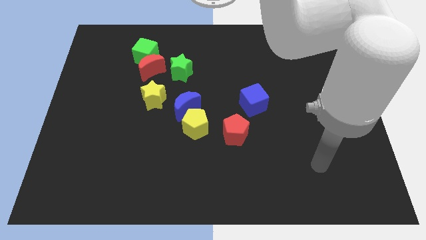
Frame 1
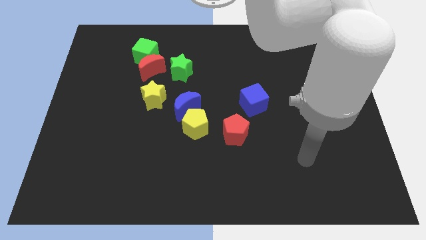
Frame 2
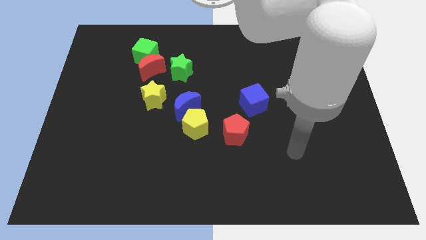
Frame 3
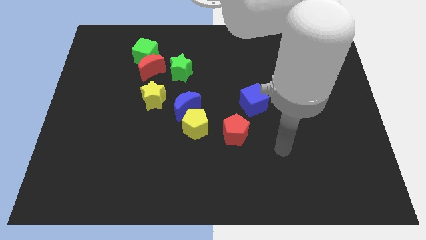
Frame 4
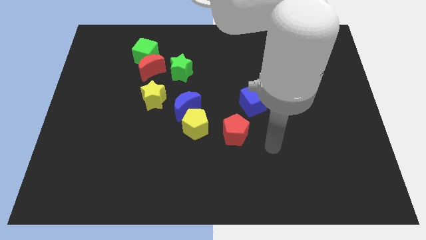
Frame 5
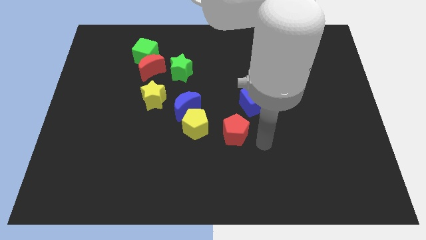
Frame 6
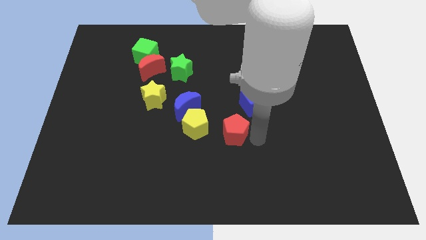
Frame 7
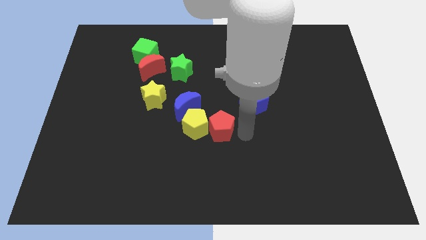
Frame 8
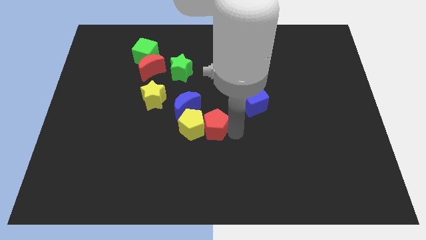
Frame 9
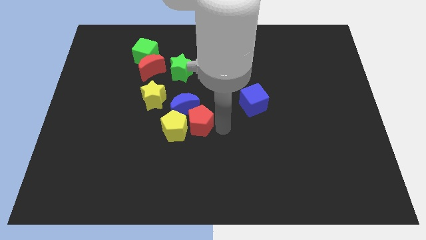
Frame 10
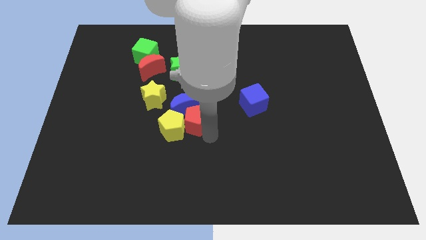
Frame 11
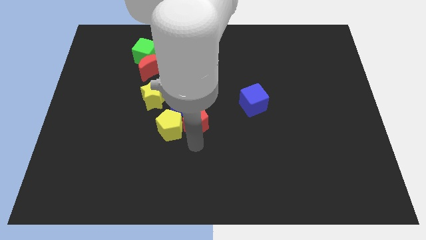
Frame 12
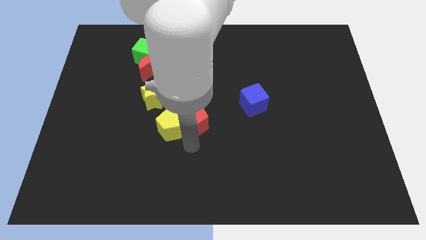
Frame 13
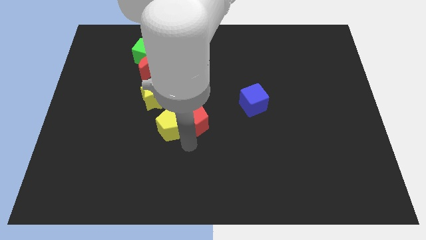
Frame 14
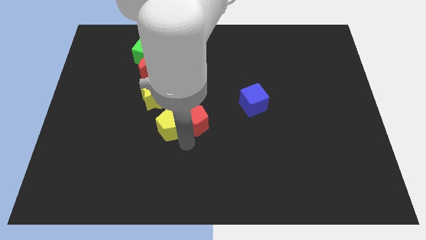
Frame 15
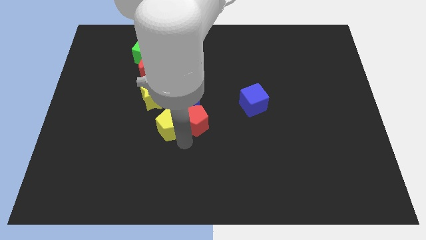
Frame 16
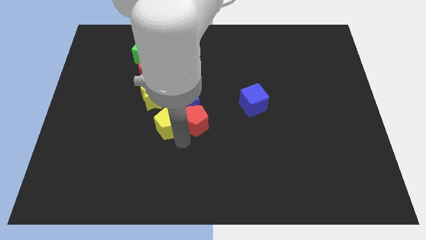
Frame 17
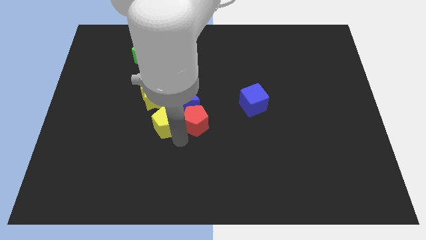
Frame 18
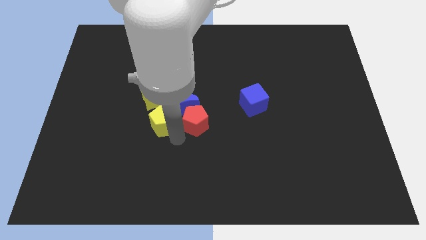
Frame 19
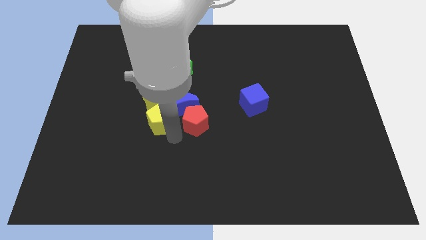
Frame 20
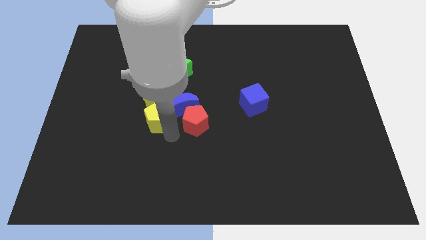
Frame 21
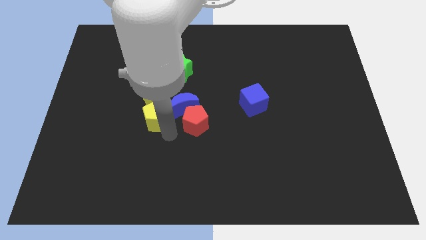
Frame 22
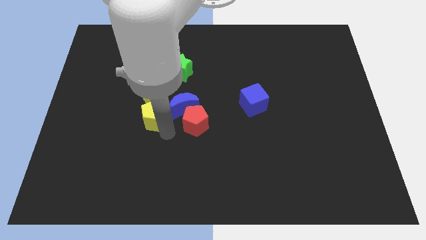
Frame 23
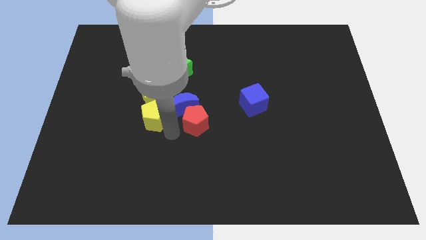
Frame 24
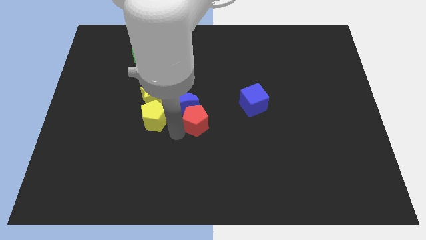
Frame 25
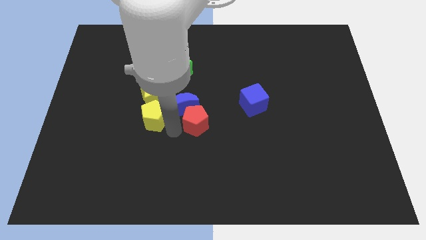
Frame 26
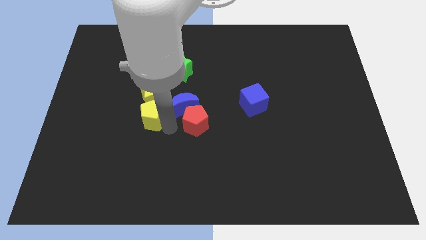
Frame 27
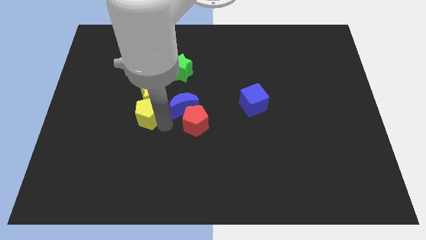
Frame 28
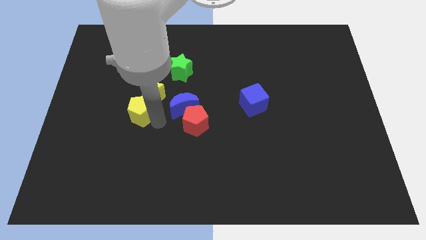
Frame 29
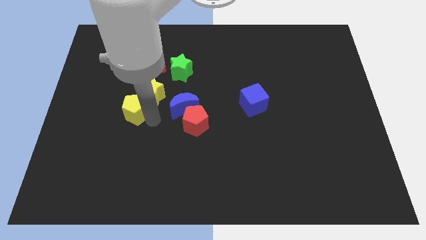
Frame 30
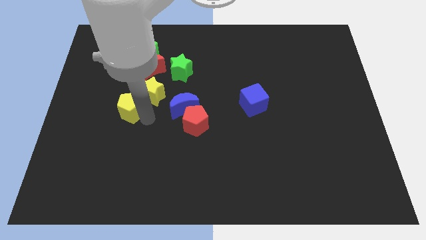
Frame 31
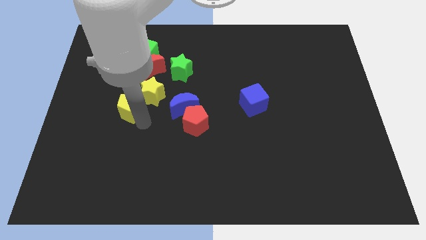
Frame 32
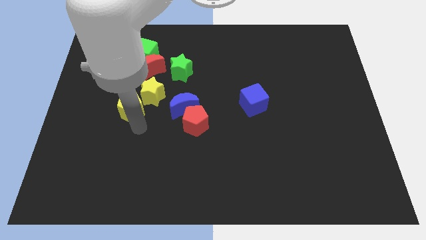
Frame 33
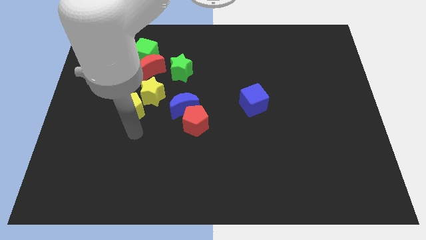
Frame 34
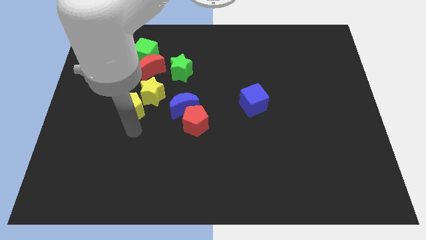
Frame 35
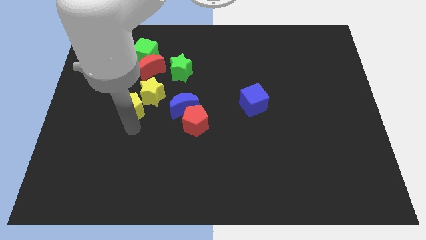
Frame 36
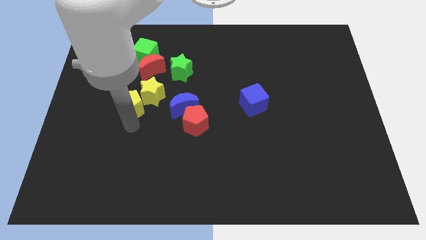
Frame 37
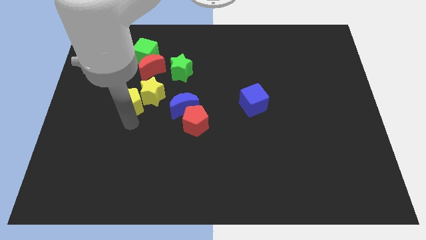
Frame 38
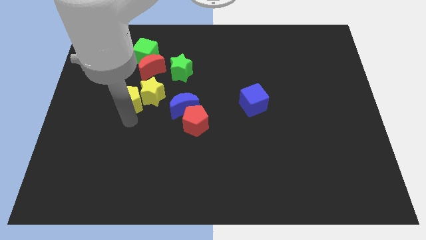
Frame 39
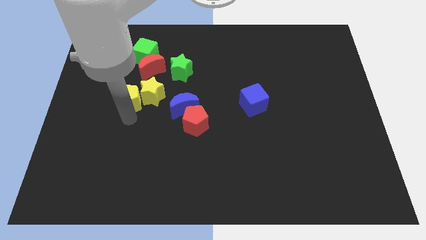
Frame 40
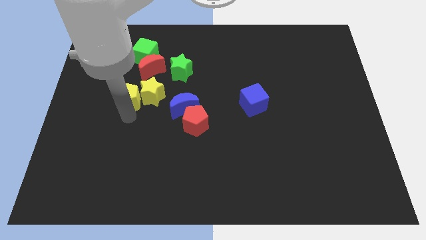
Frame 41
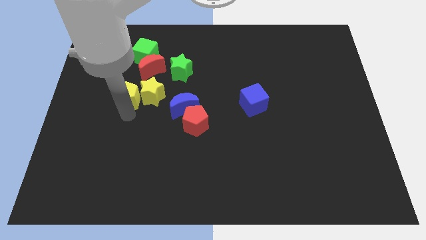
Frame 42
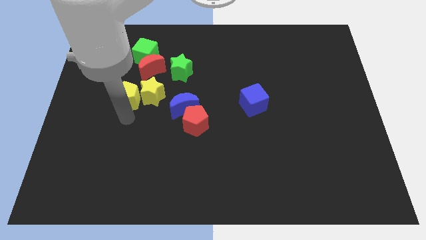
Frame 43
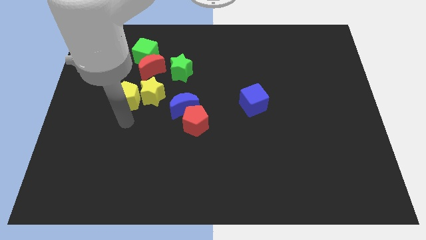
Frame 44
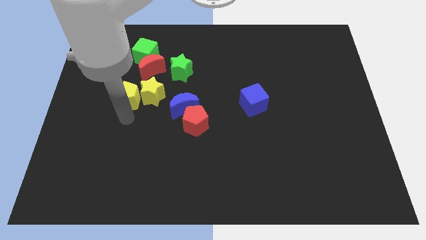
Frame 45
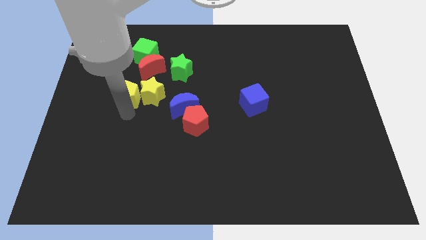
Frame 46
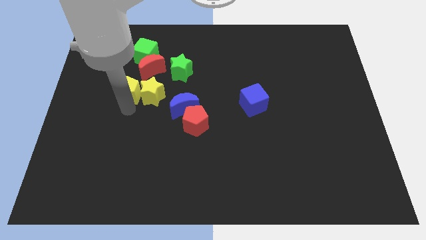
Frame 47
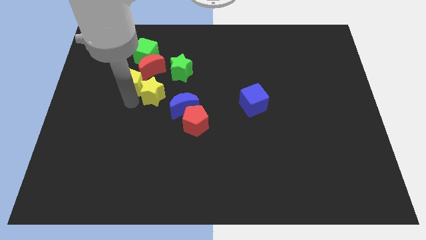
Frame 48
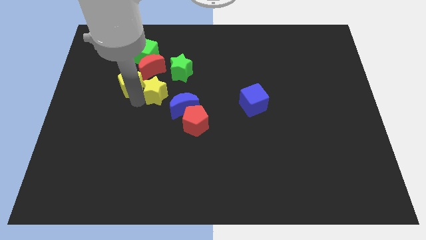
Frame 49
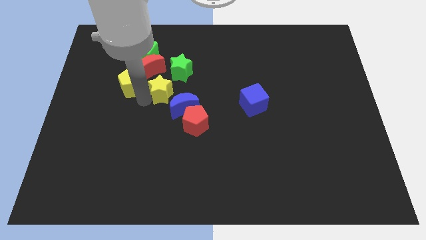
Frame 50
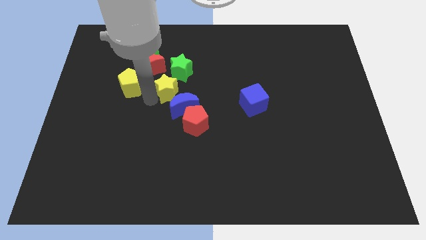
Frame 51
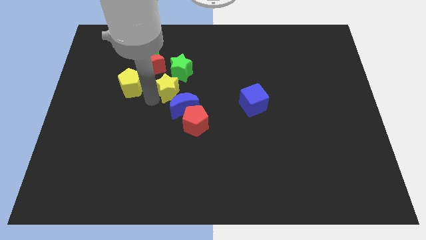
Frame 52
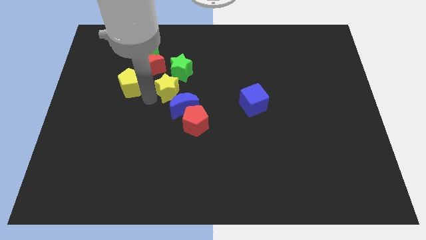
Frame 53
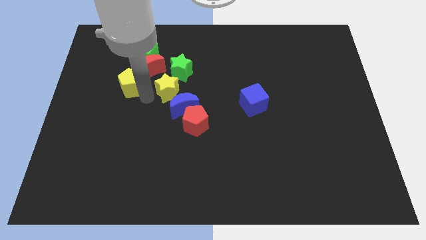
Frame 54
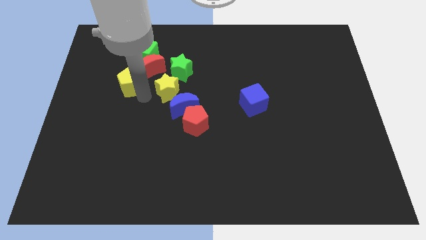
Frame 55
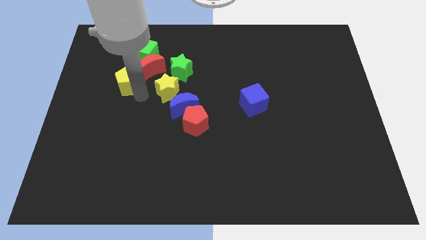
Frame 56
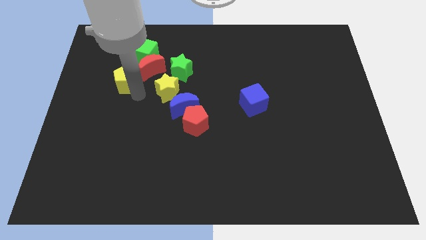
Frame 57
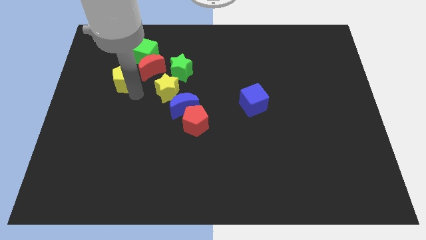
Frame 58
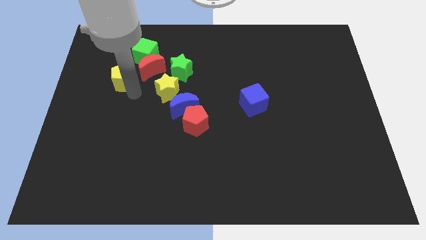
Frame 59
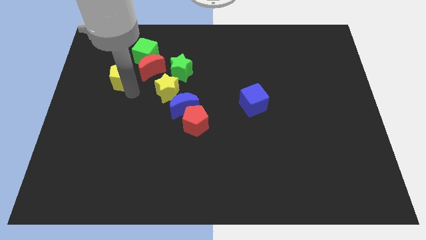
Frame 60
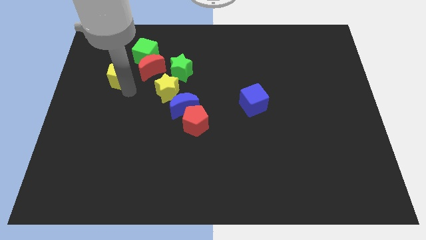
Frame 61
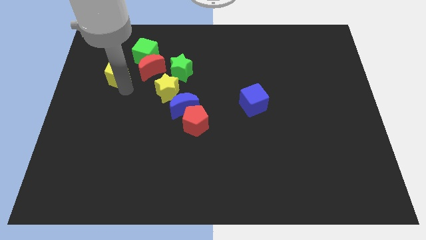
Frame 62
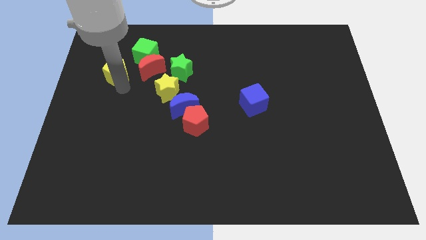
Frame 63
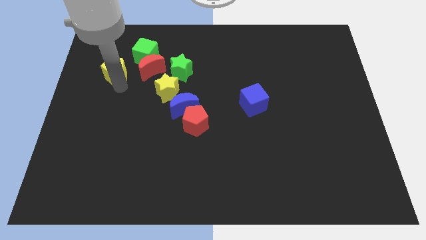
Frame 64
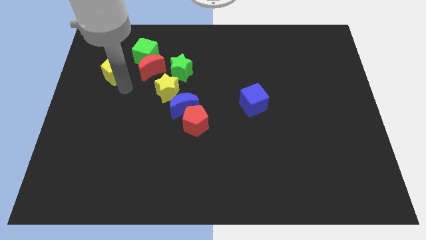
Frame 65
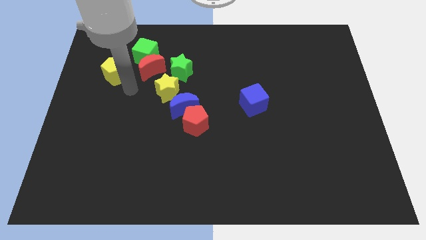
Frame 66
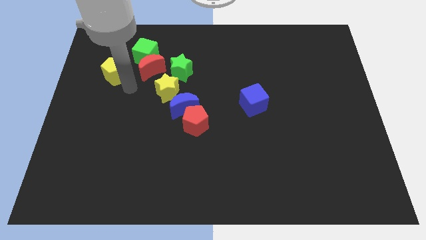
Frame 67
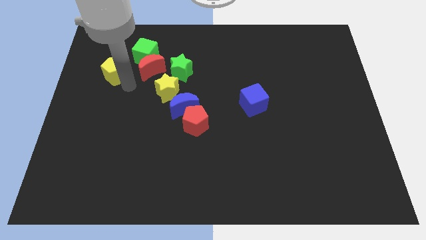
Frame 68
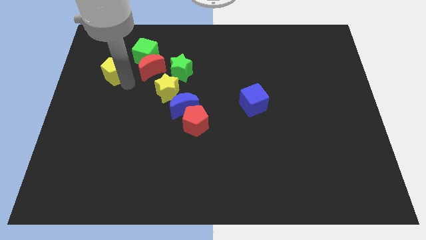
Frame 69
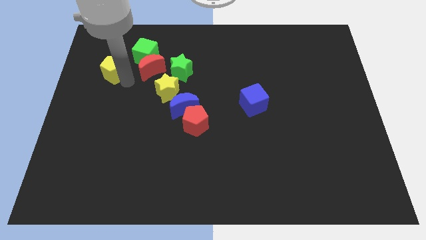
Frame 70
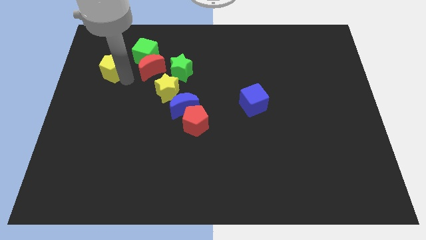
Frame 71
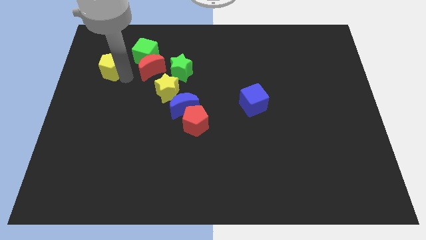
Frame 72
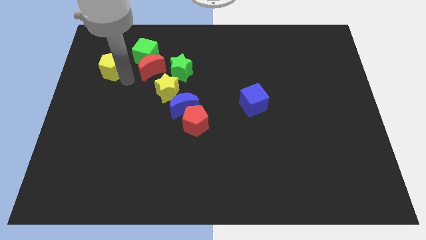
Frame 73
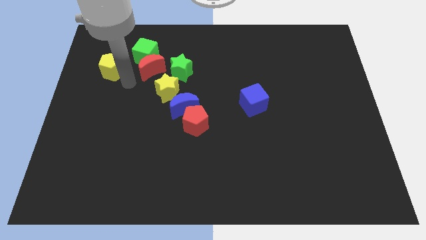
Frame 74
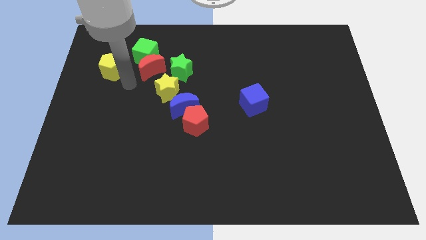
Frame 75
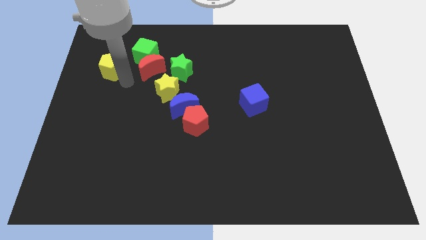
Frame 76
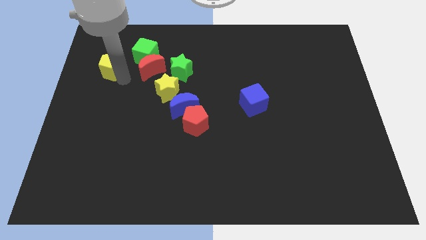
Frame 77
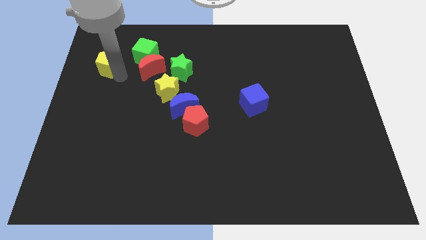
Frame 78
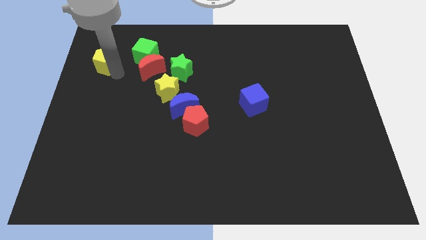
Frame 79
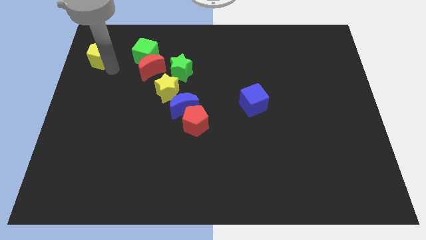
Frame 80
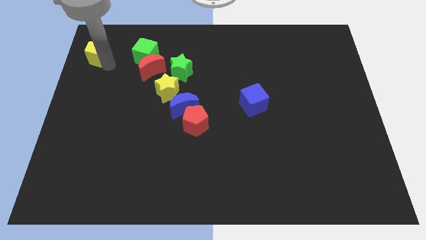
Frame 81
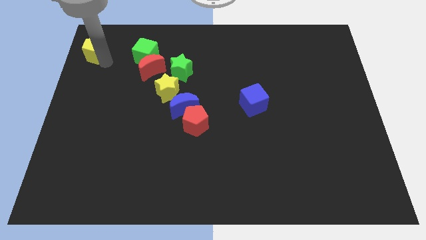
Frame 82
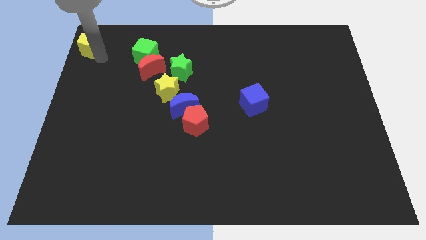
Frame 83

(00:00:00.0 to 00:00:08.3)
push the yellow pentagon to the top left corner
